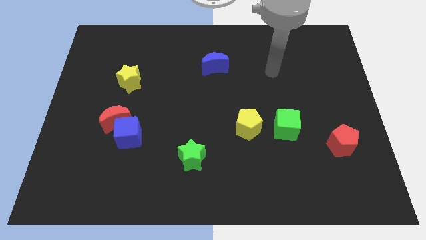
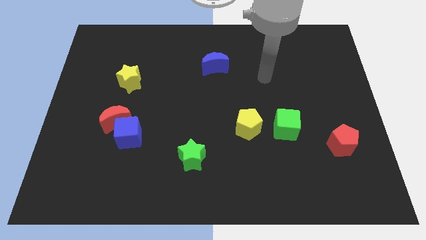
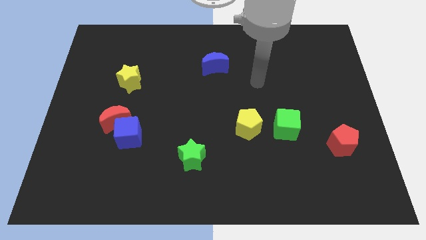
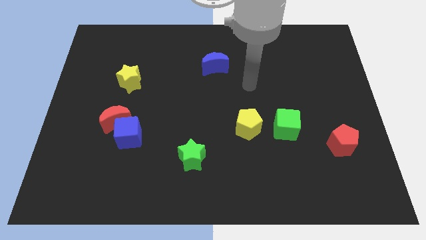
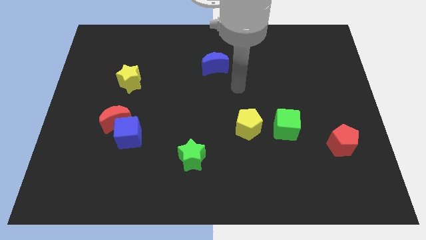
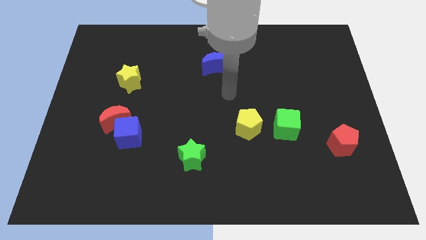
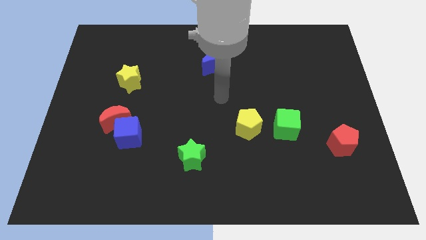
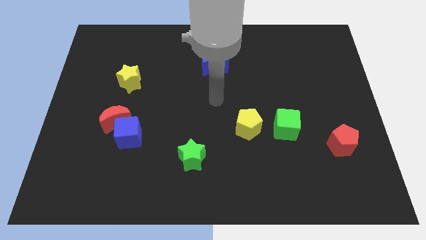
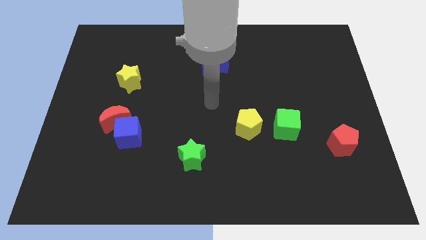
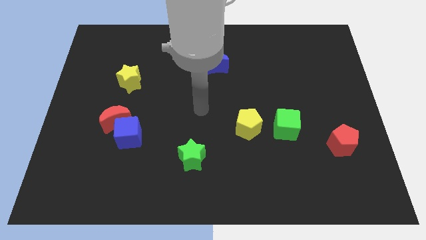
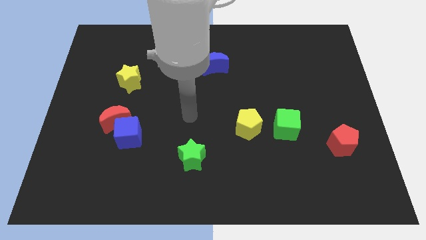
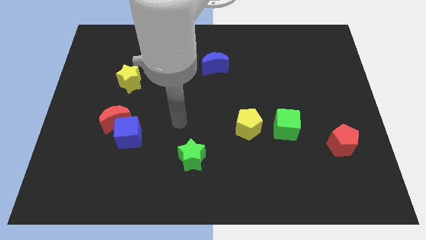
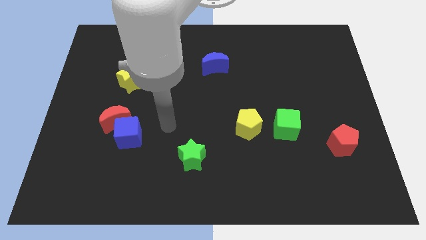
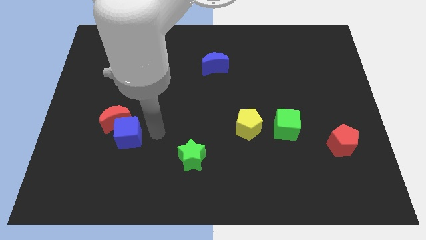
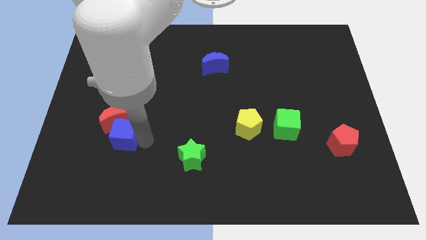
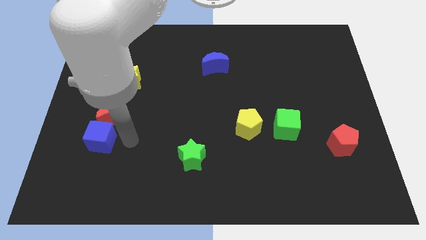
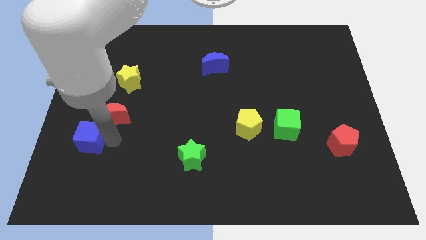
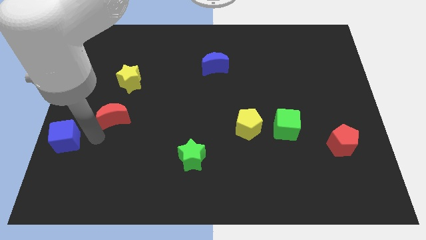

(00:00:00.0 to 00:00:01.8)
pull the red moon apart from the blue cube

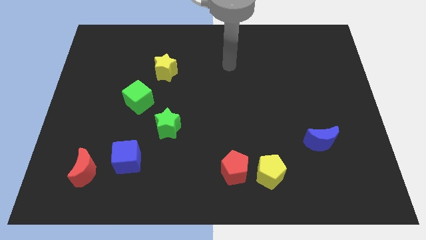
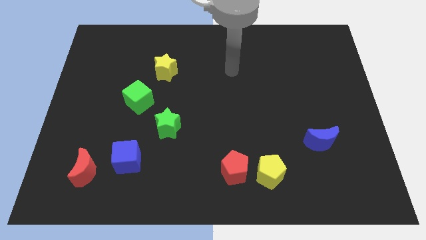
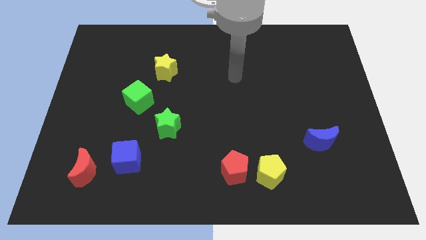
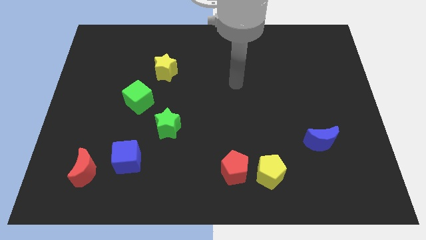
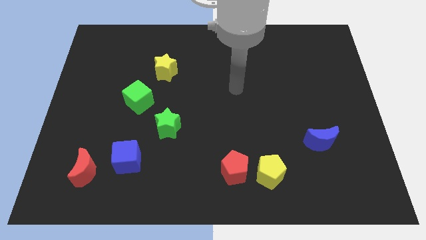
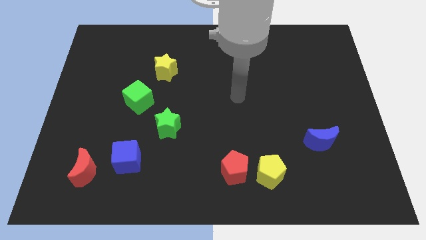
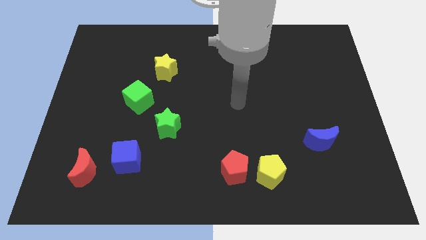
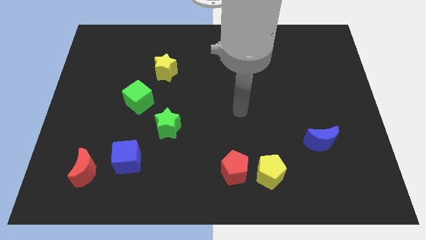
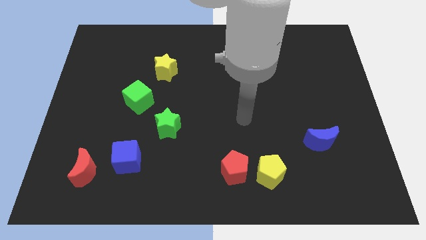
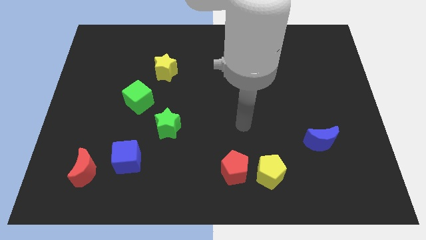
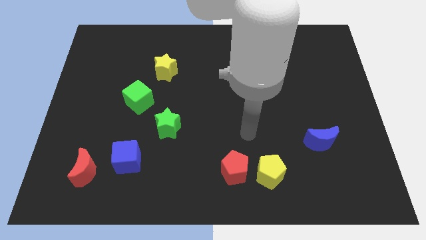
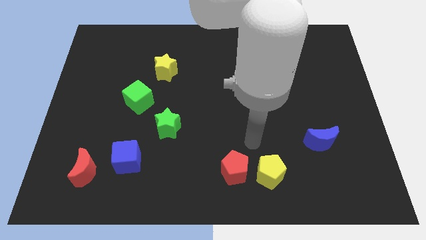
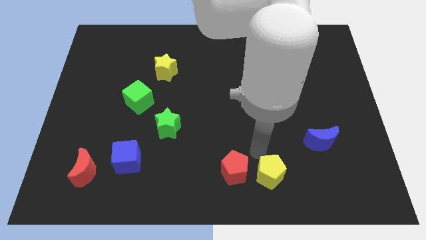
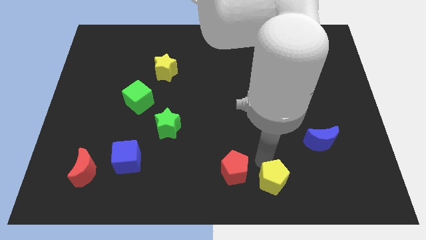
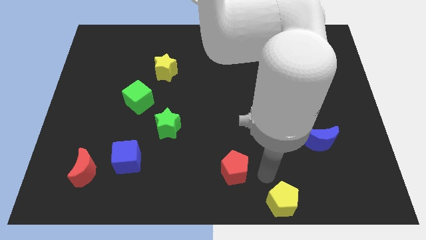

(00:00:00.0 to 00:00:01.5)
separate the red pentagon from the yellow pentagon

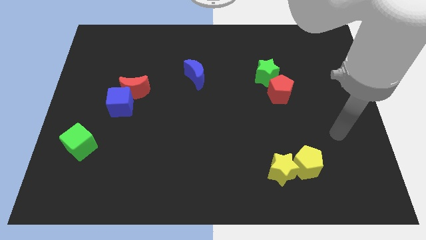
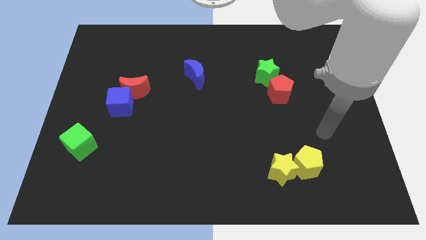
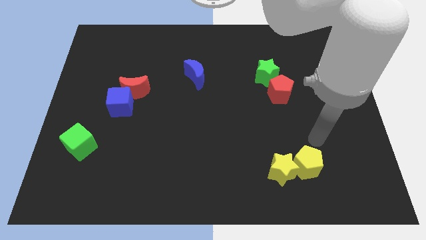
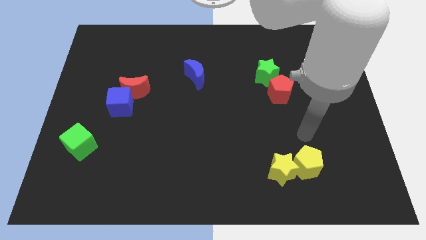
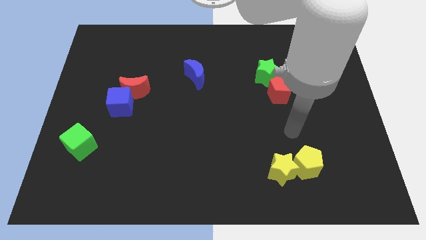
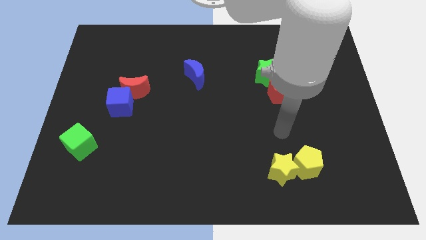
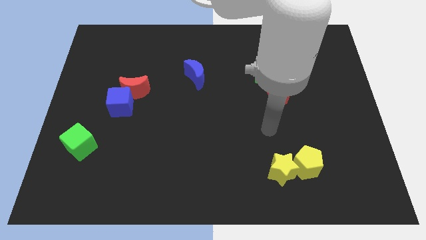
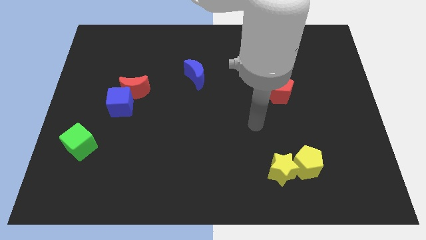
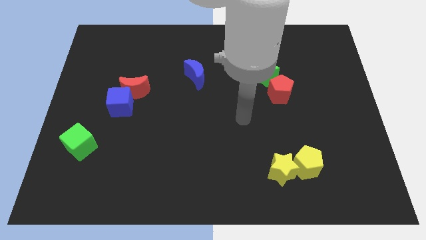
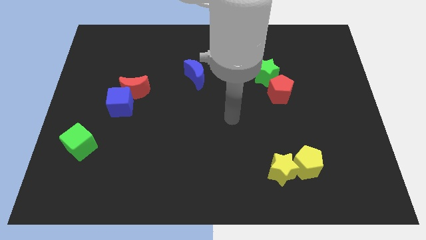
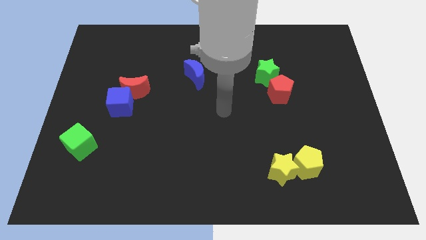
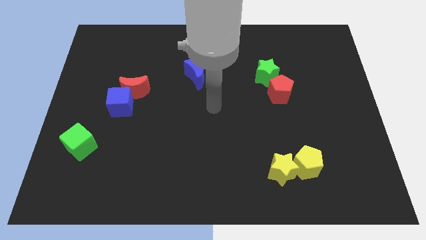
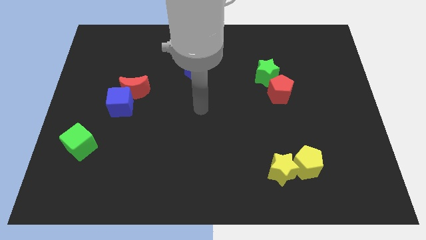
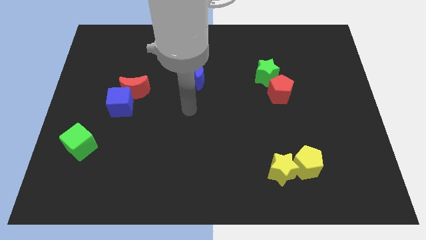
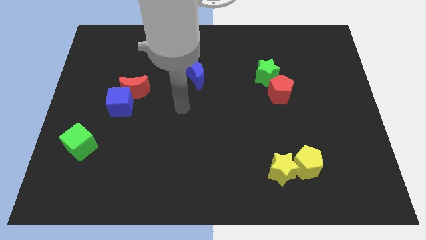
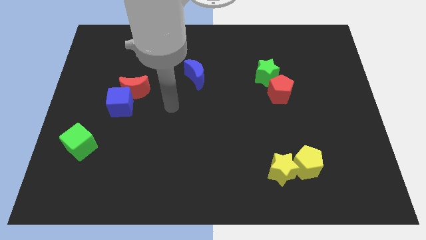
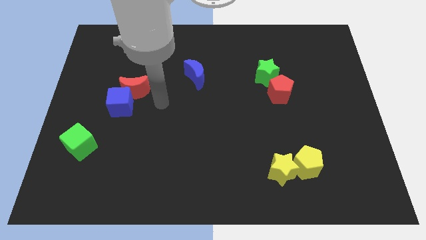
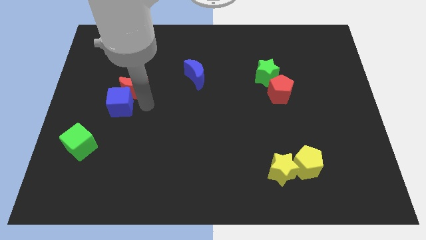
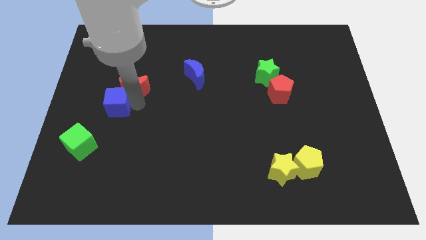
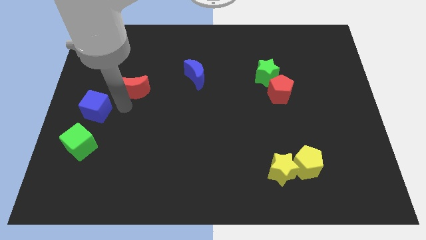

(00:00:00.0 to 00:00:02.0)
move the red moon away from the blue cube

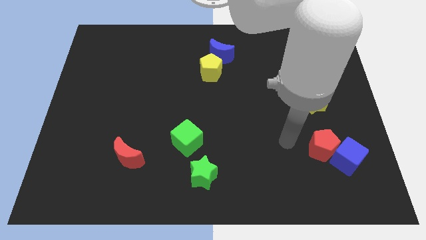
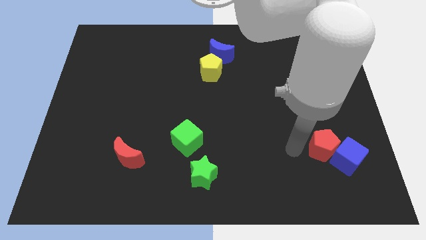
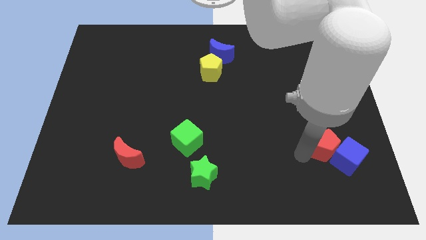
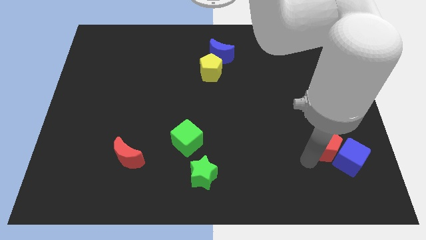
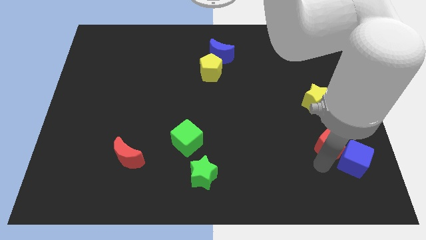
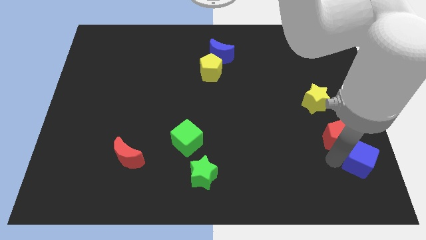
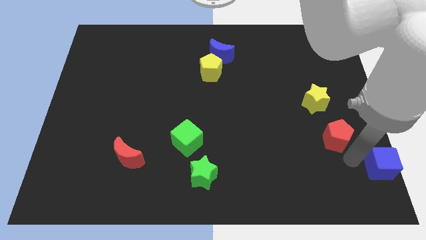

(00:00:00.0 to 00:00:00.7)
separate the red pentagon from the blue cube

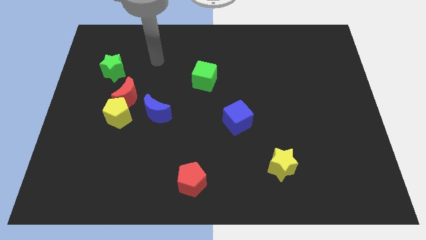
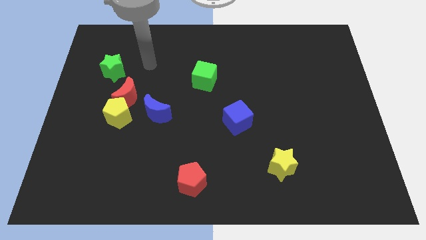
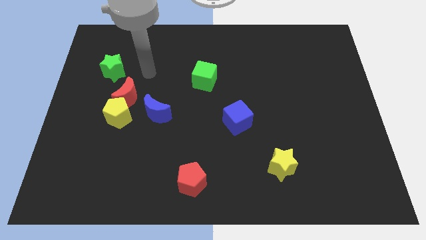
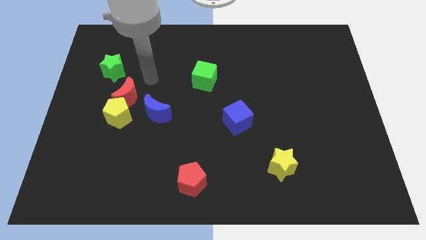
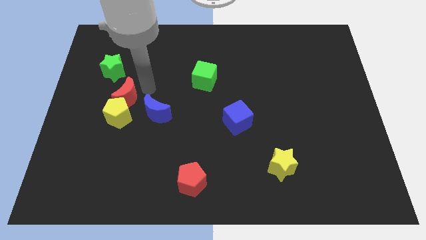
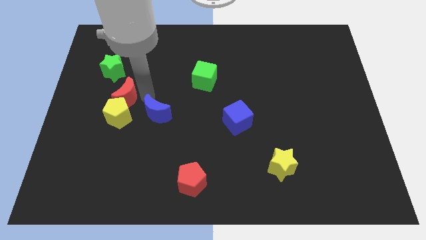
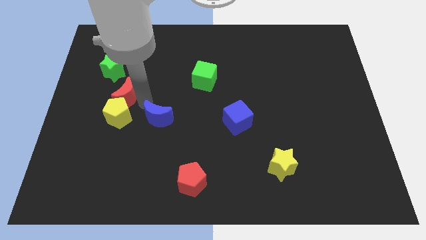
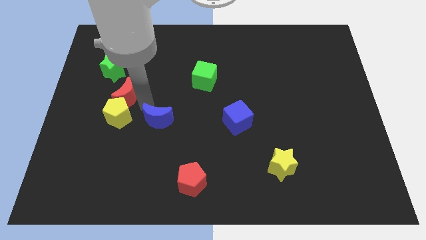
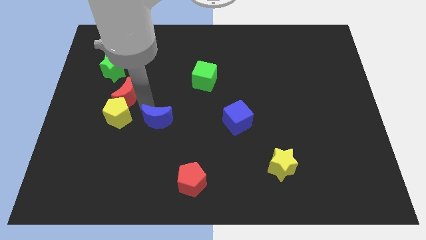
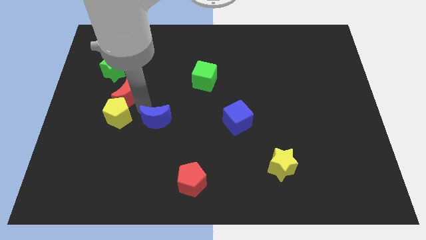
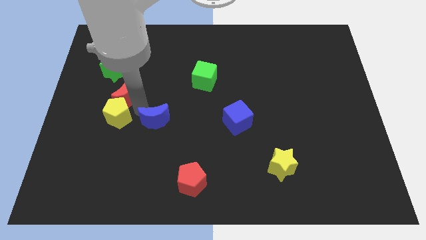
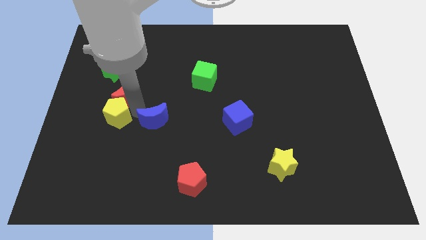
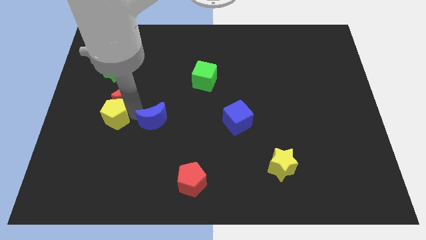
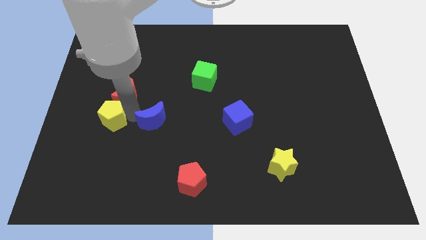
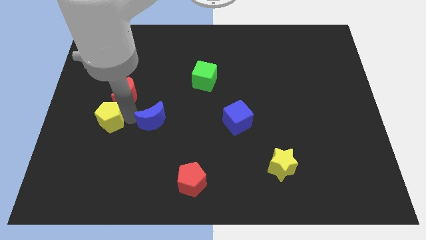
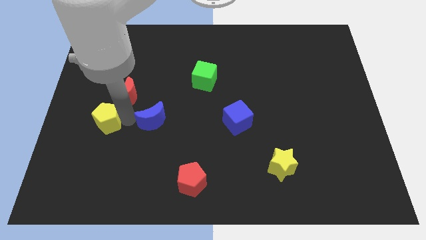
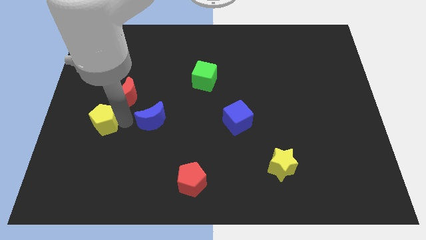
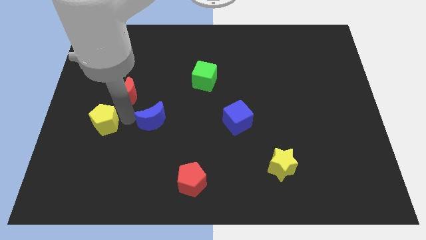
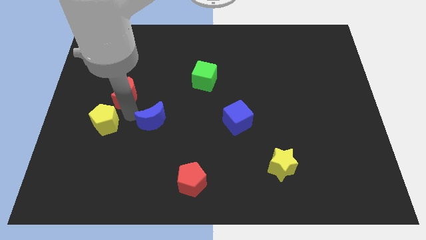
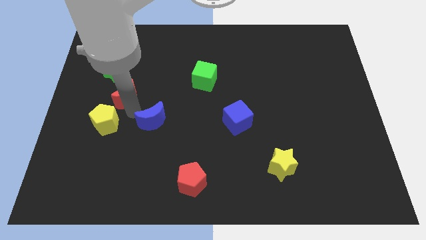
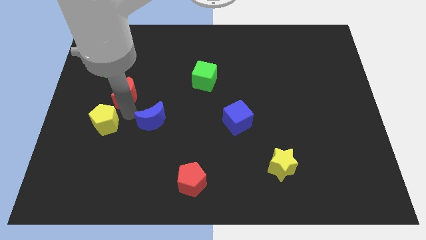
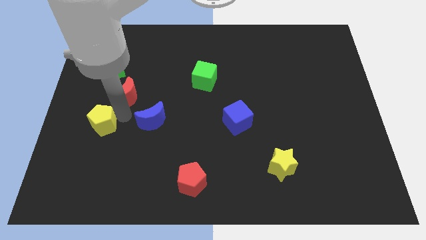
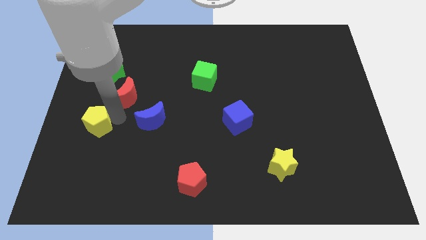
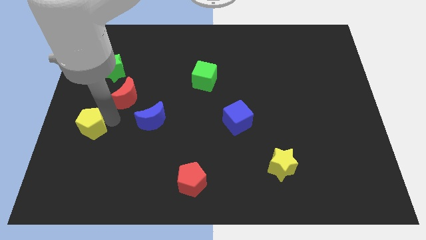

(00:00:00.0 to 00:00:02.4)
move the yellow pentagon away from the red moon and blue moon

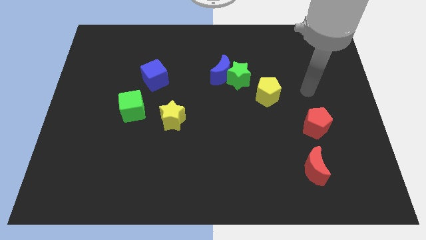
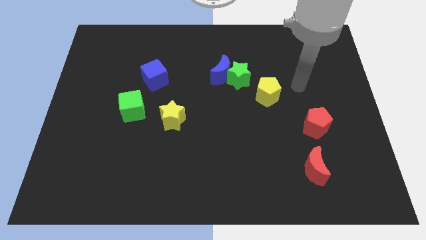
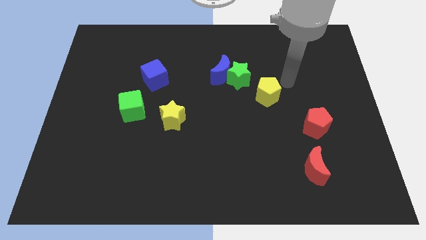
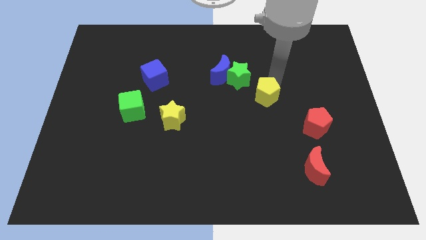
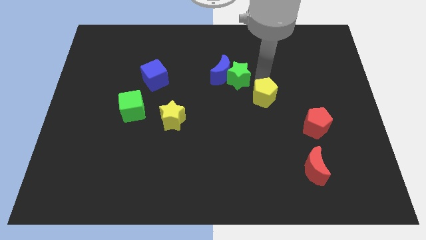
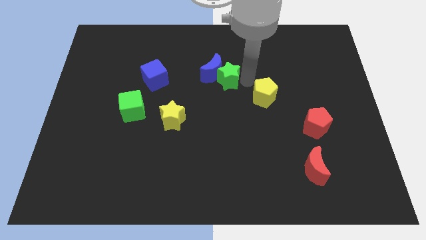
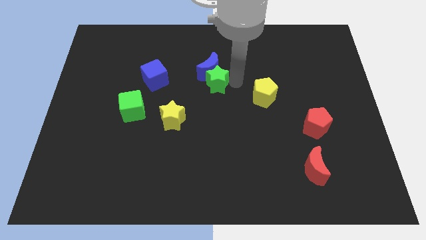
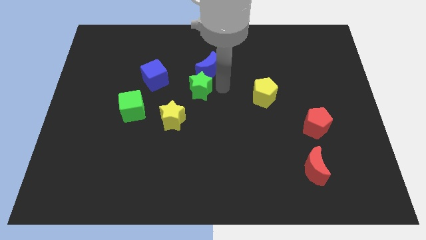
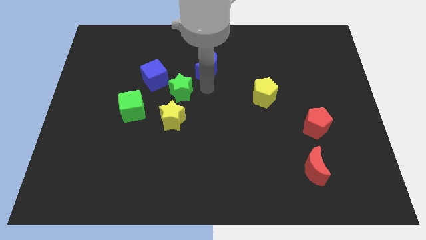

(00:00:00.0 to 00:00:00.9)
pull the blue moon apart from the green star

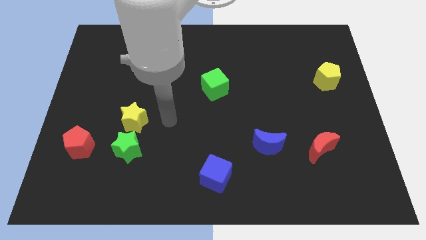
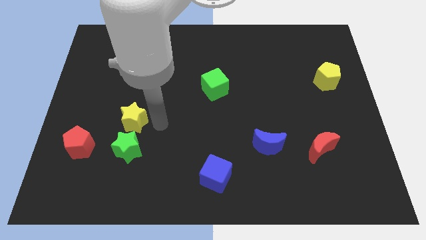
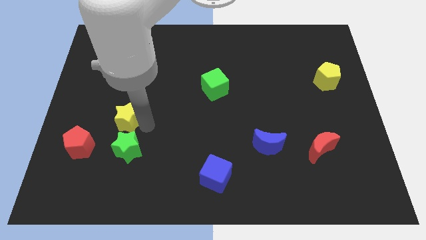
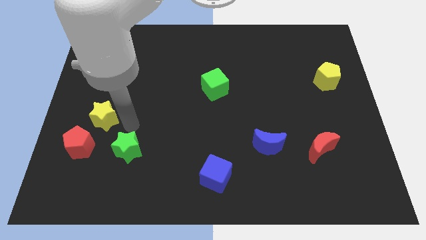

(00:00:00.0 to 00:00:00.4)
move the green star away from the yellow star
